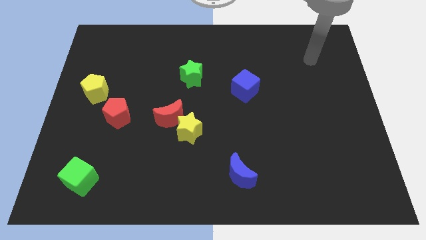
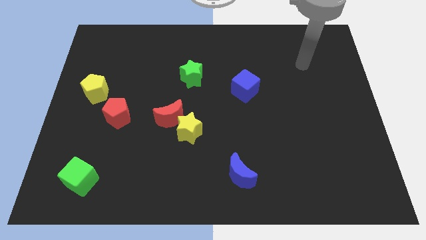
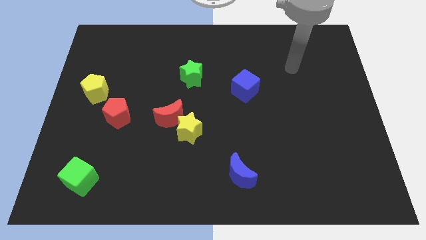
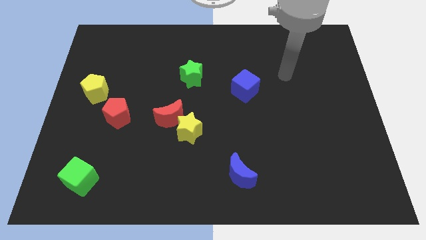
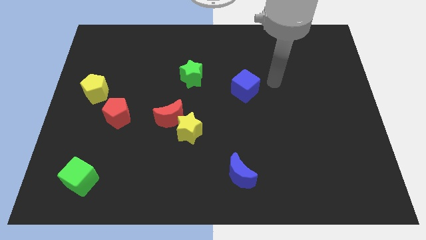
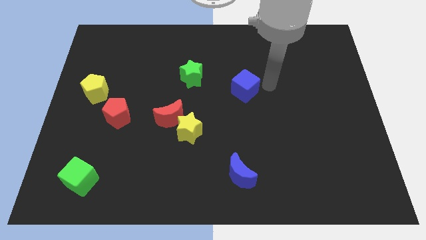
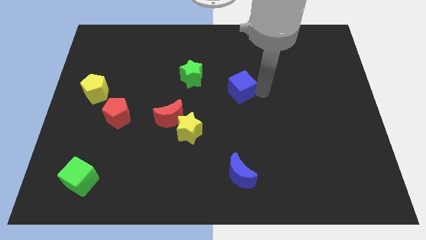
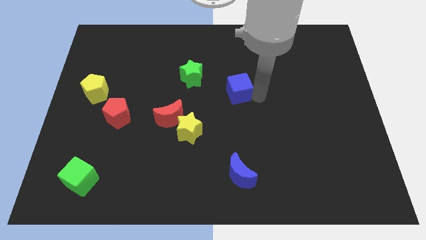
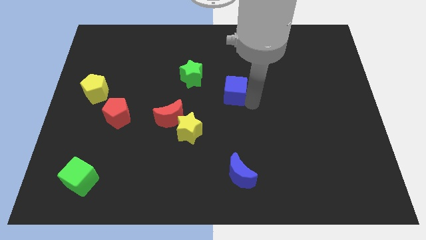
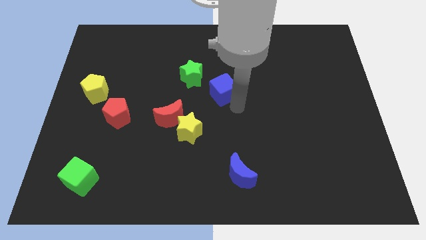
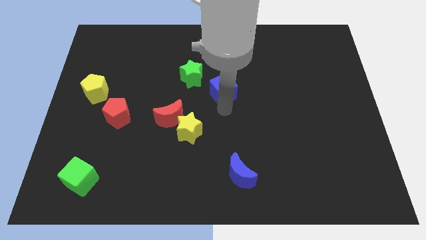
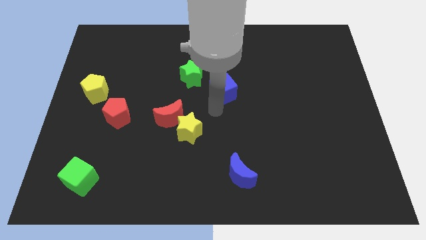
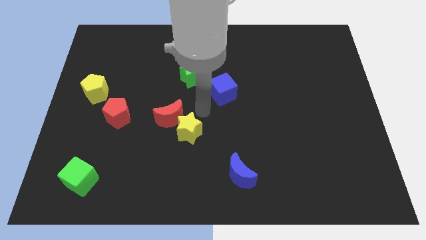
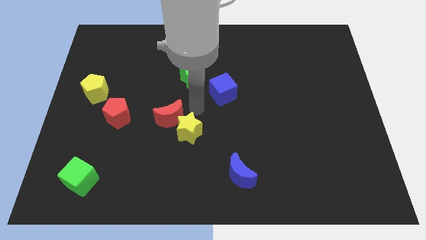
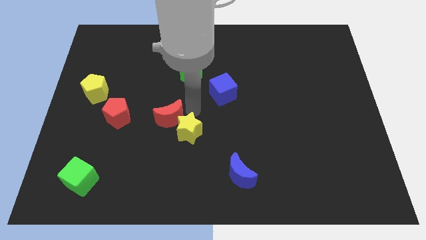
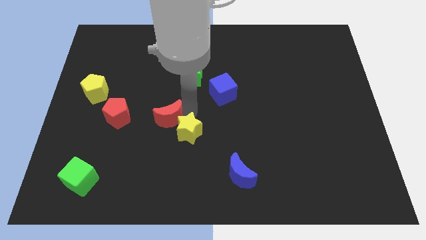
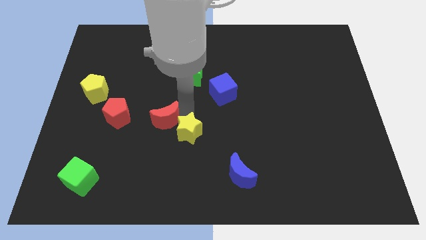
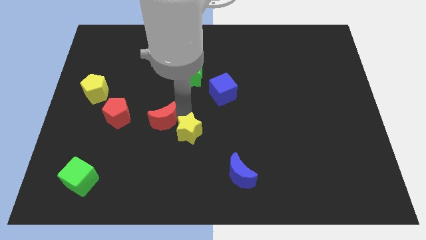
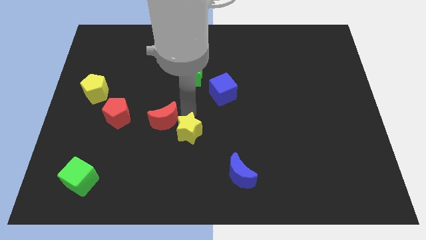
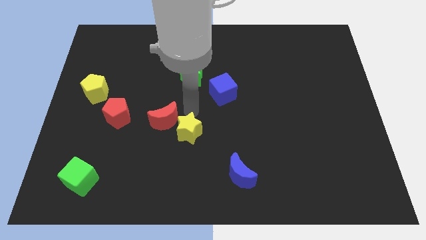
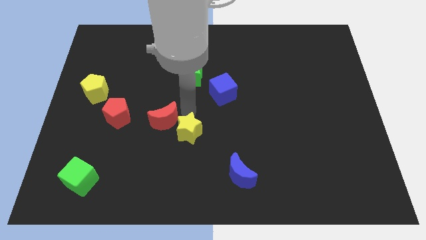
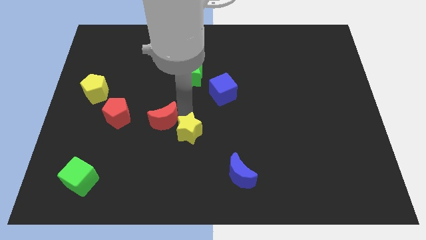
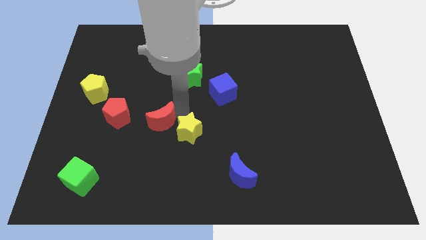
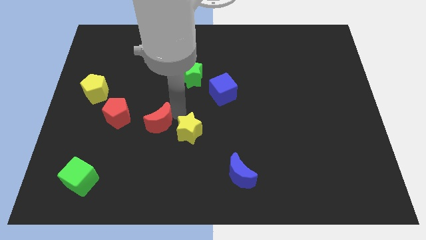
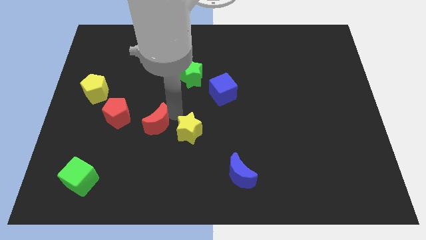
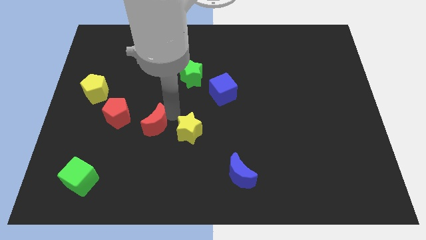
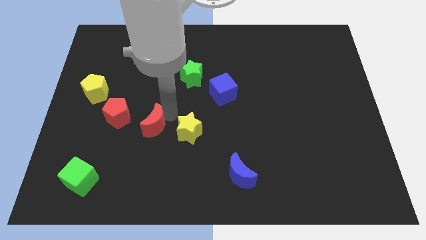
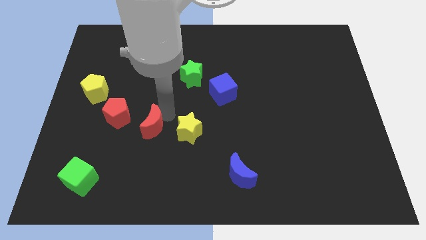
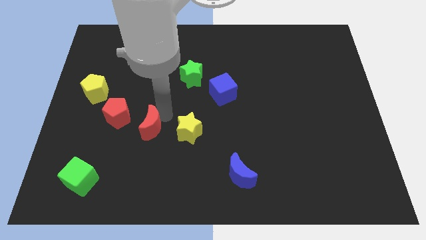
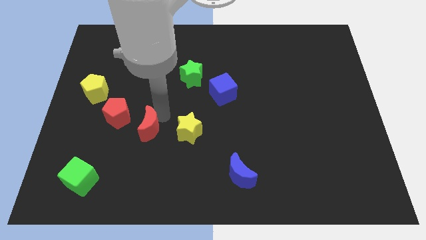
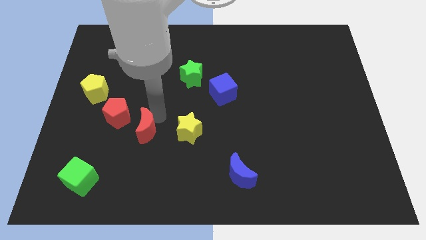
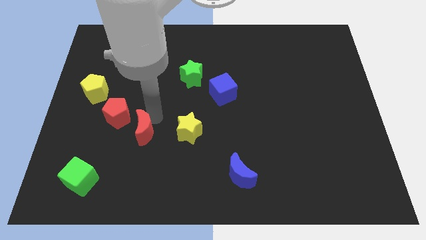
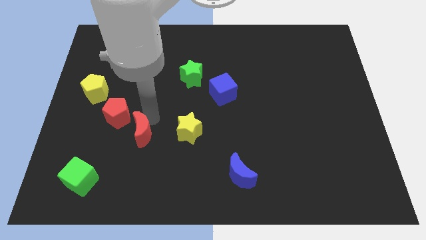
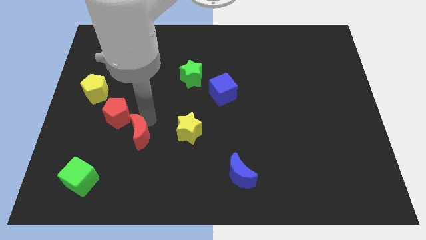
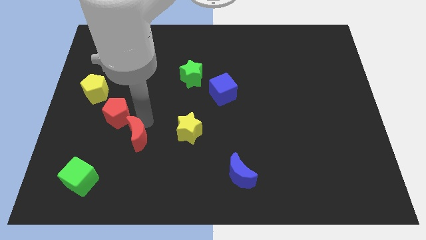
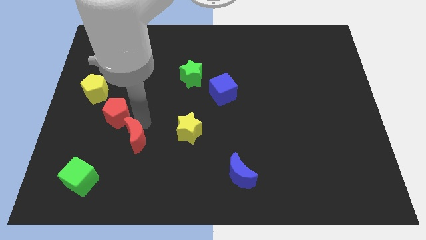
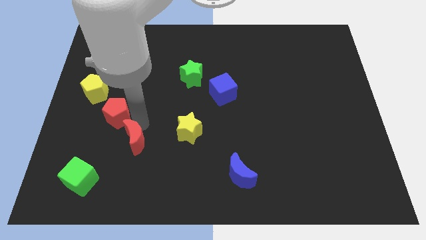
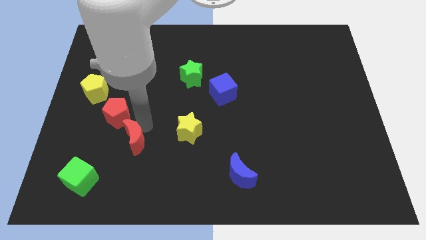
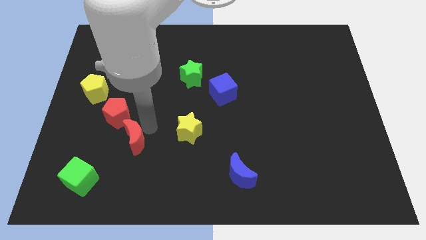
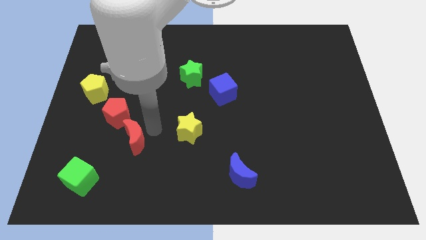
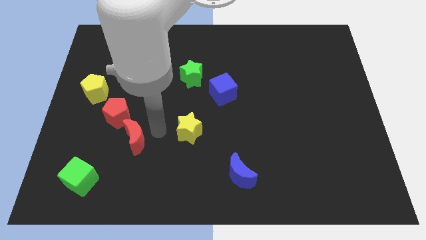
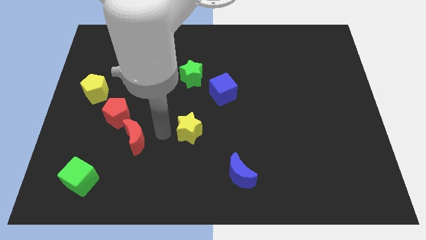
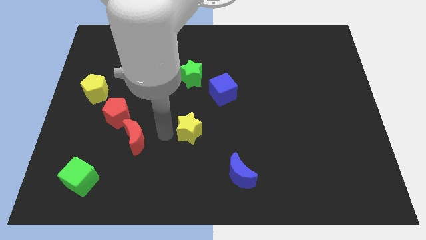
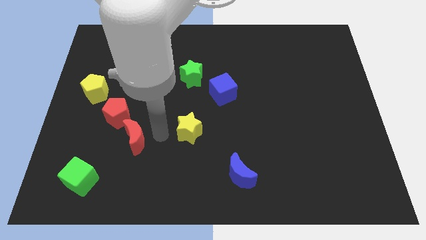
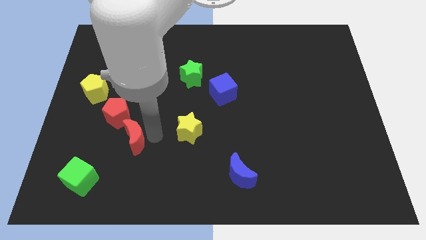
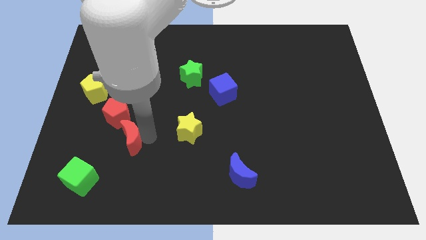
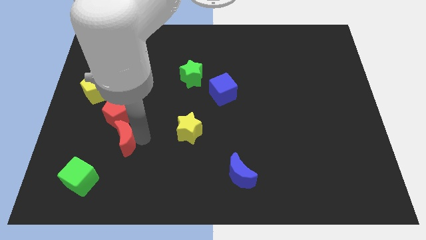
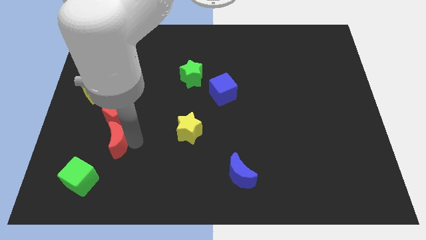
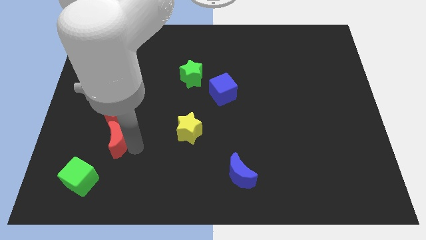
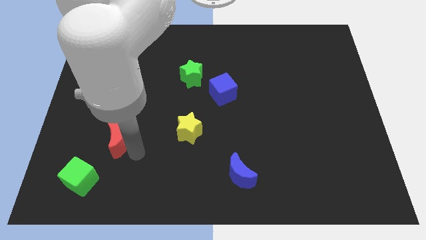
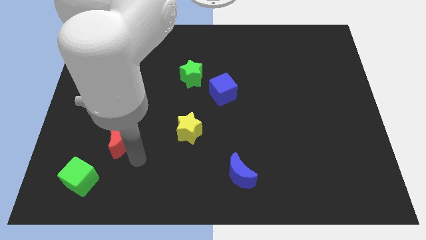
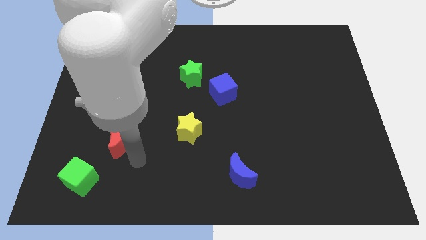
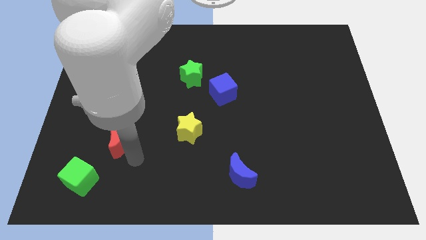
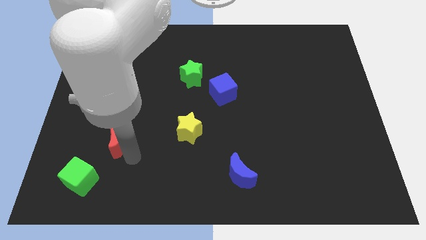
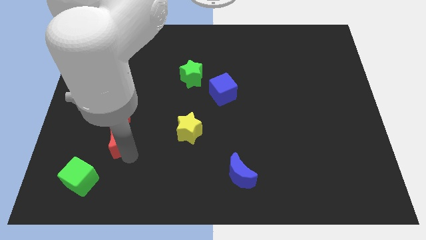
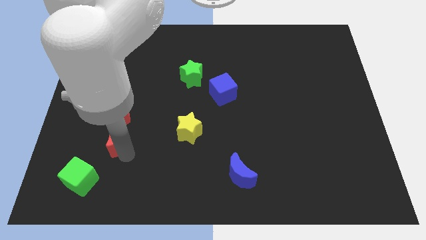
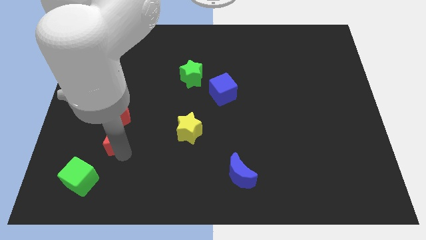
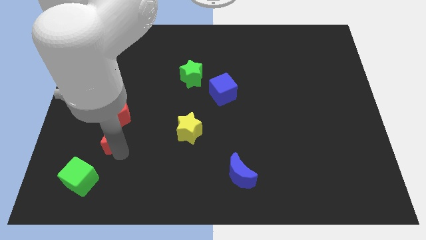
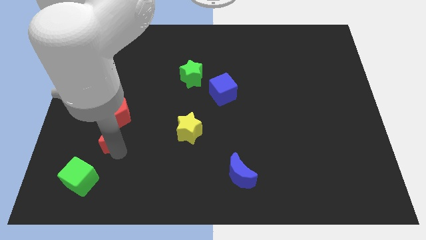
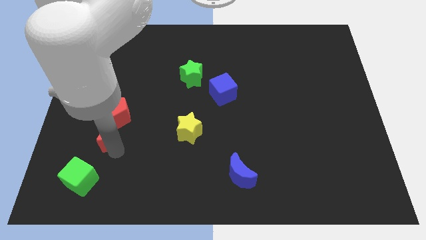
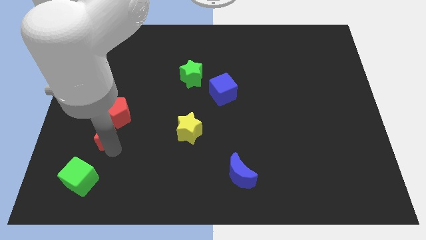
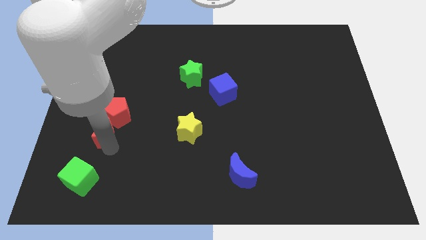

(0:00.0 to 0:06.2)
move the red moon to the bottom of the yellow pentagon

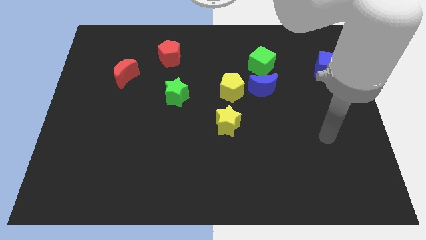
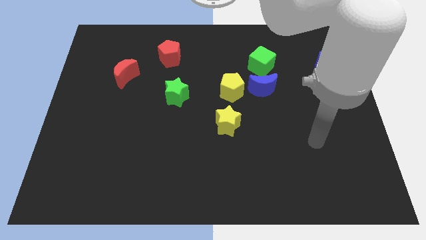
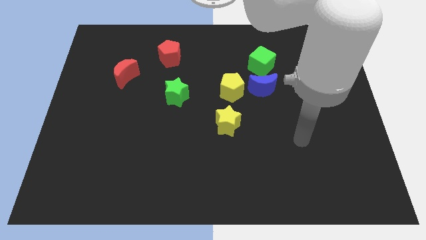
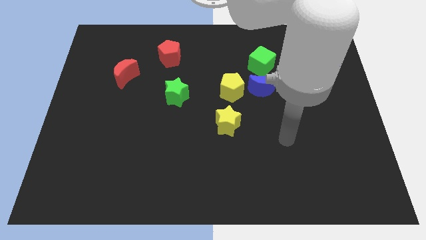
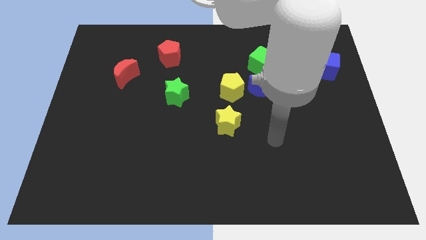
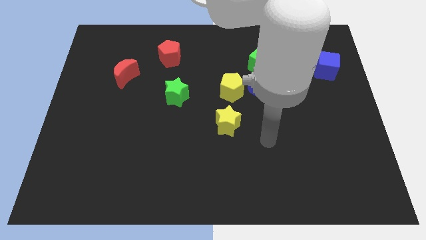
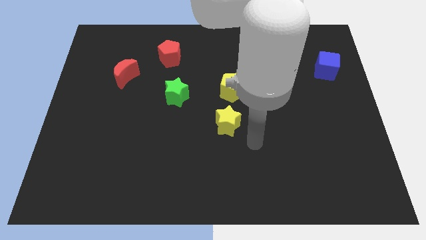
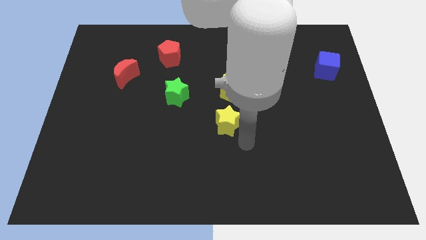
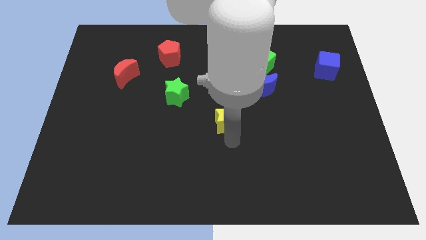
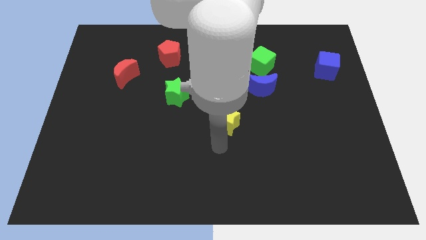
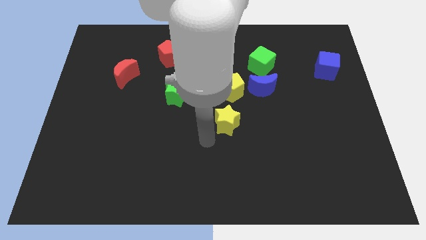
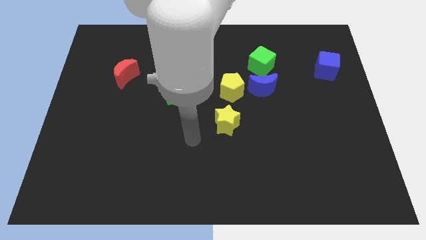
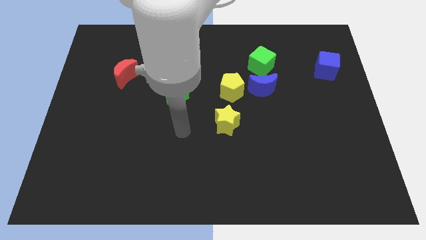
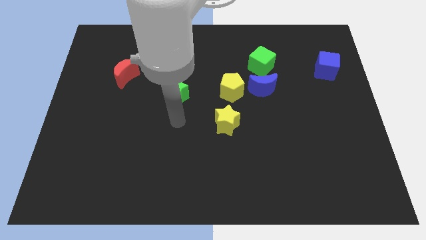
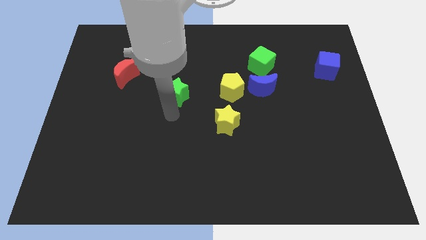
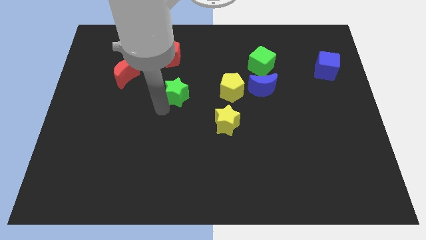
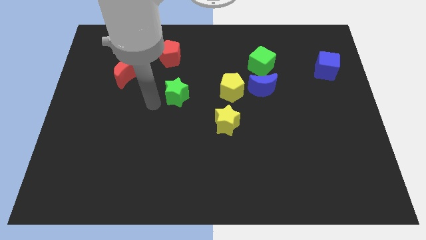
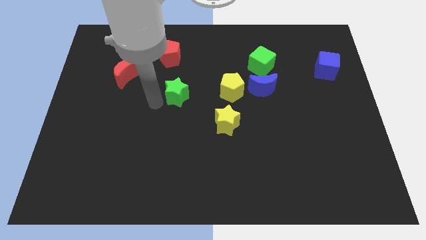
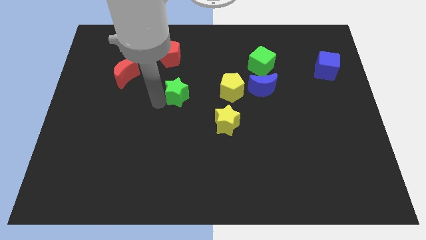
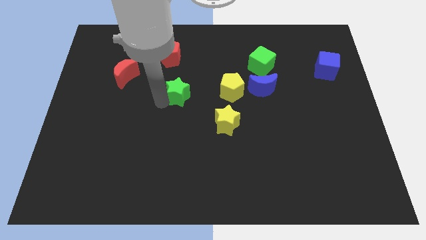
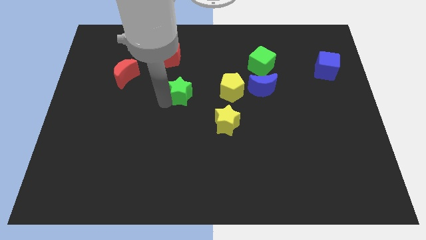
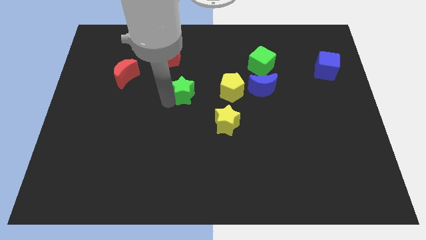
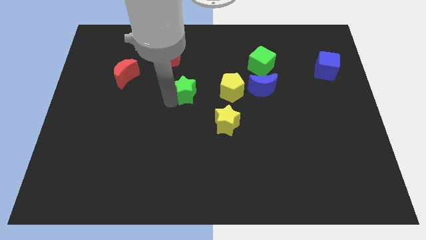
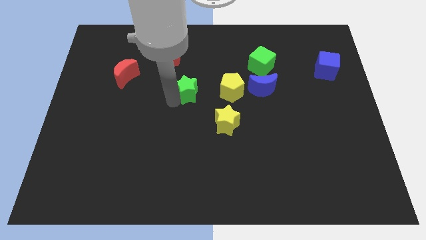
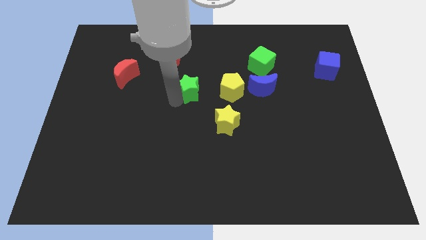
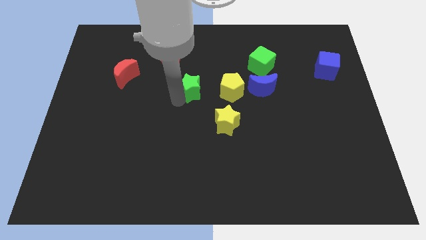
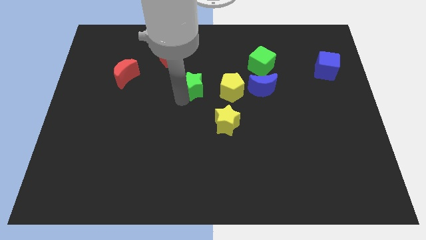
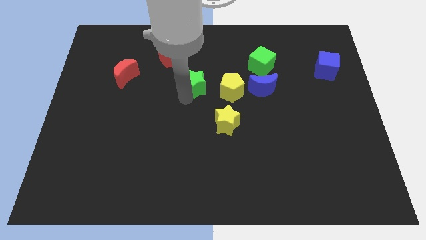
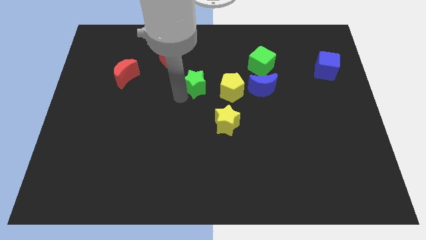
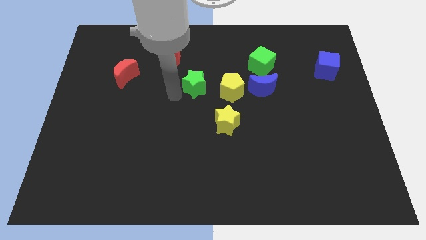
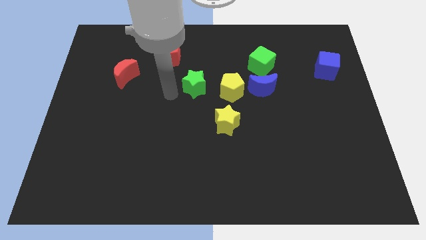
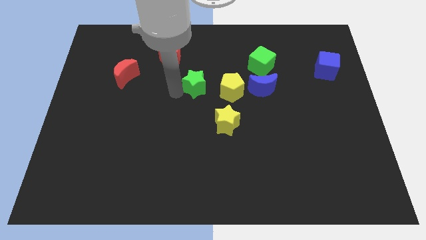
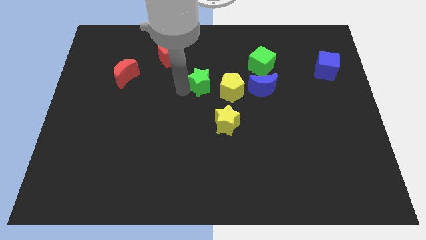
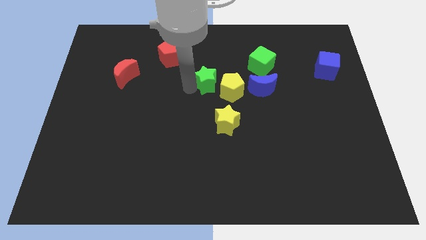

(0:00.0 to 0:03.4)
put the green star above the yellow star
